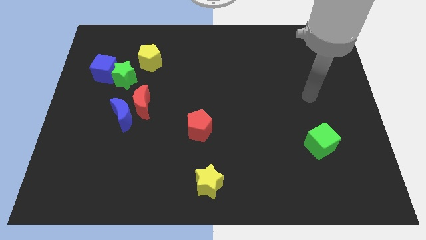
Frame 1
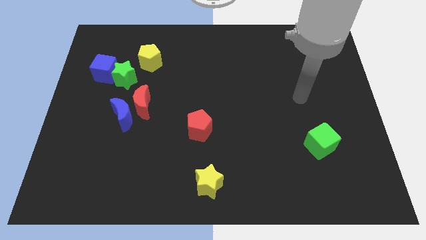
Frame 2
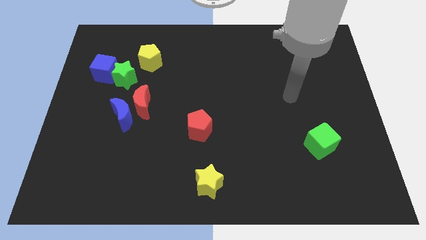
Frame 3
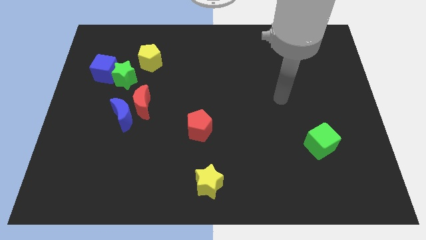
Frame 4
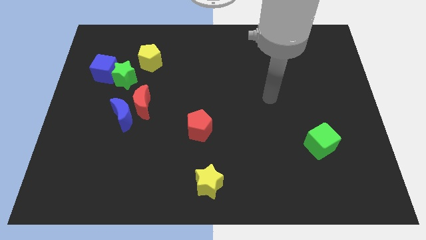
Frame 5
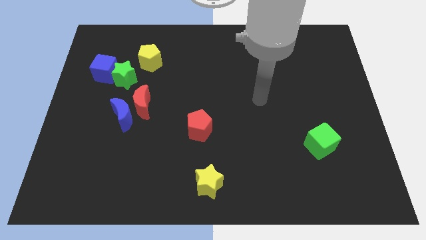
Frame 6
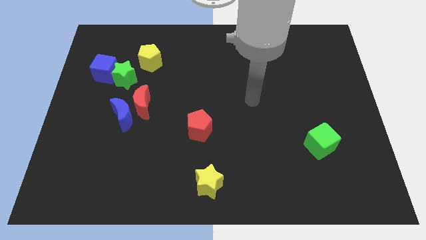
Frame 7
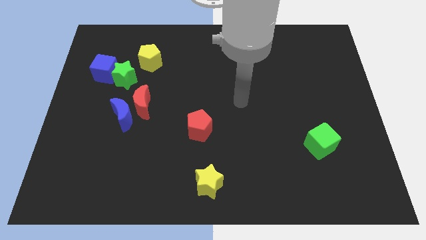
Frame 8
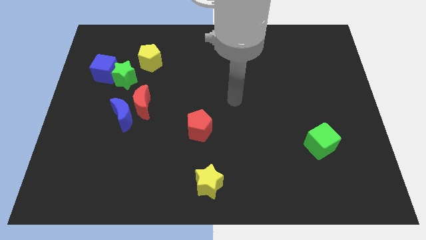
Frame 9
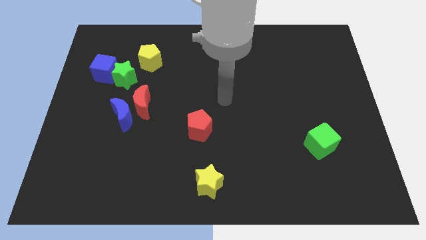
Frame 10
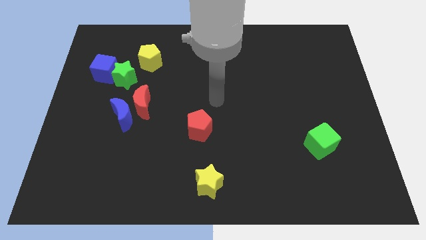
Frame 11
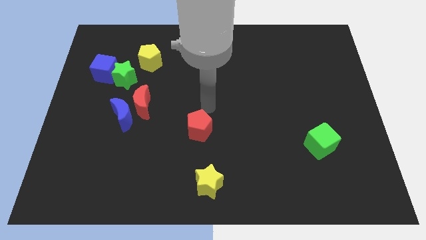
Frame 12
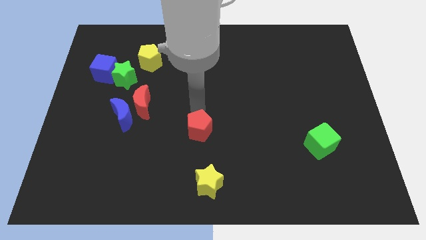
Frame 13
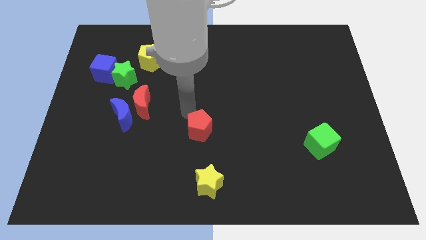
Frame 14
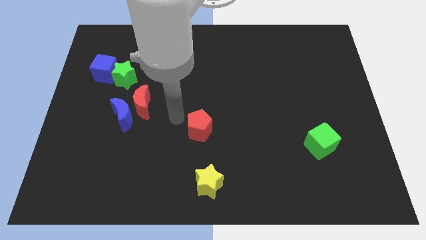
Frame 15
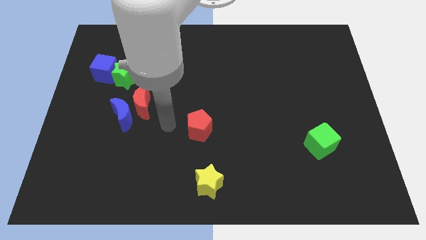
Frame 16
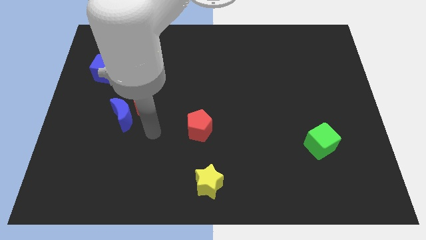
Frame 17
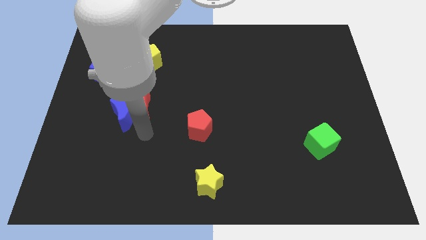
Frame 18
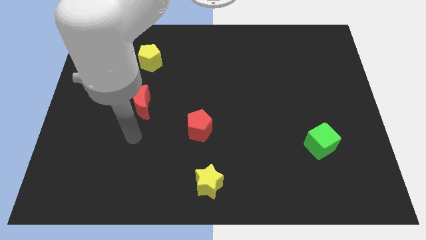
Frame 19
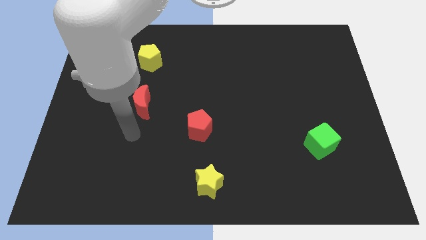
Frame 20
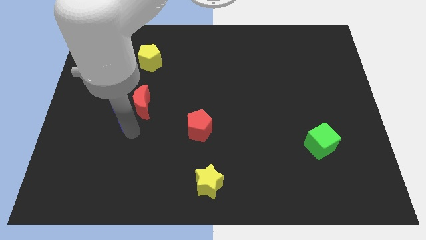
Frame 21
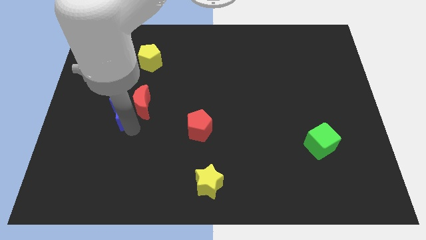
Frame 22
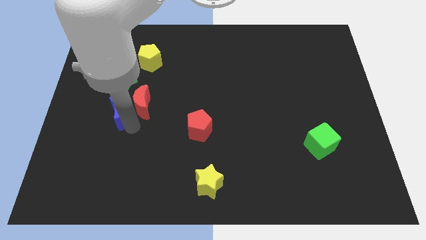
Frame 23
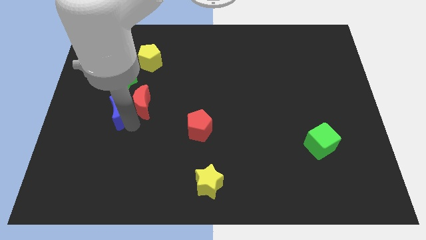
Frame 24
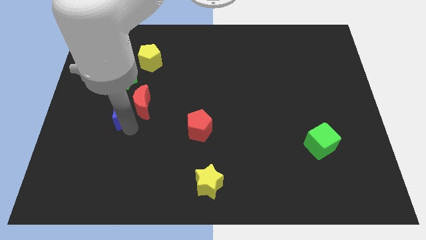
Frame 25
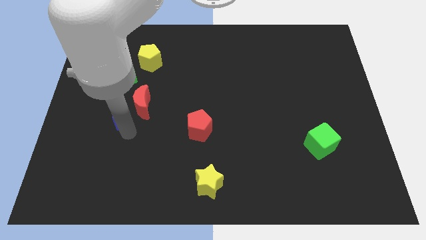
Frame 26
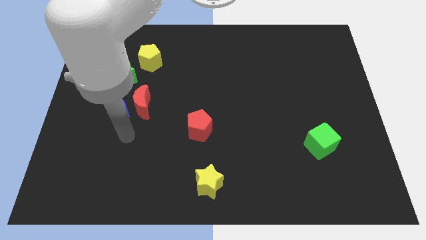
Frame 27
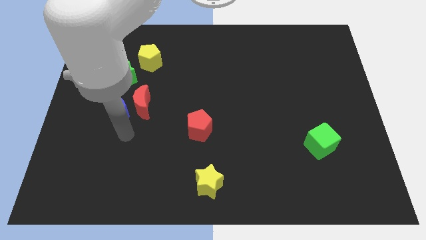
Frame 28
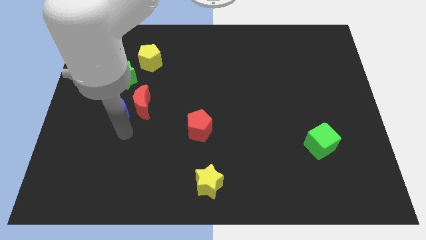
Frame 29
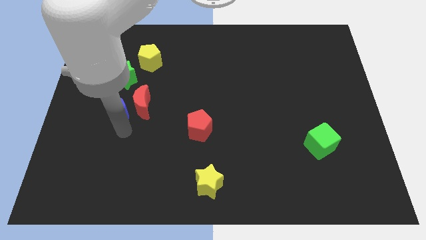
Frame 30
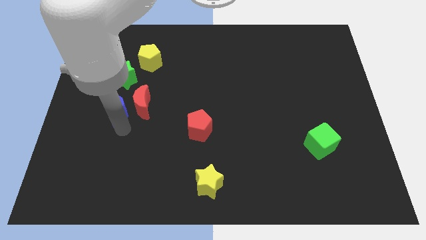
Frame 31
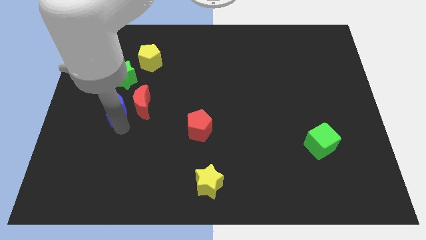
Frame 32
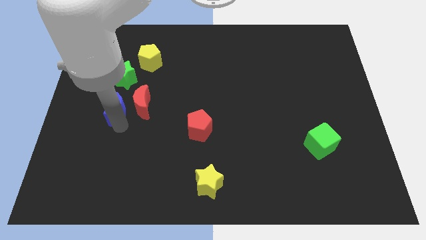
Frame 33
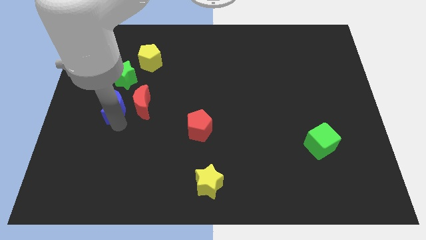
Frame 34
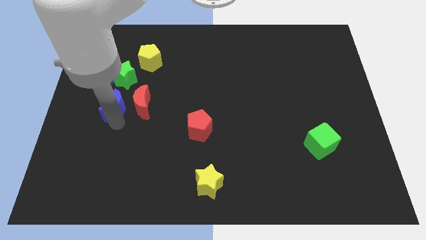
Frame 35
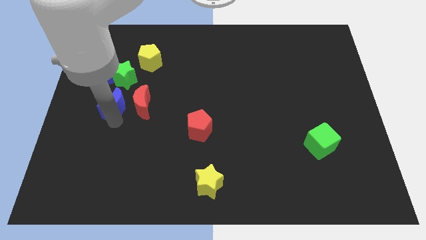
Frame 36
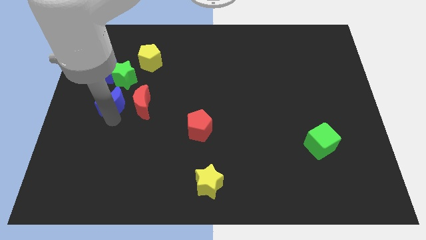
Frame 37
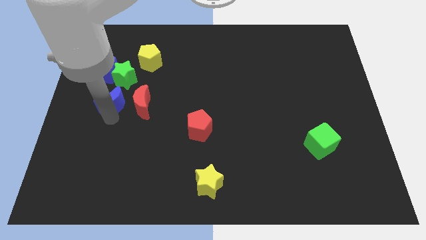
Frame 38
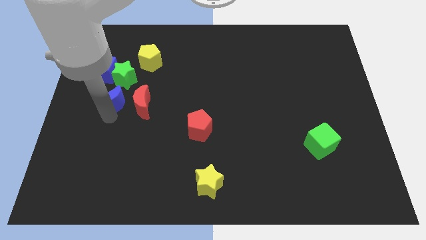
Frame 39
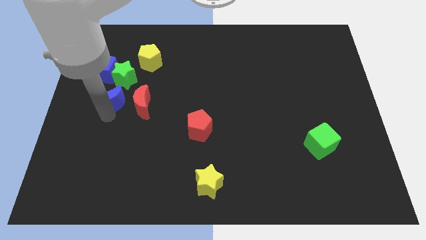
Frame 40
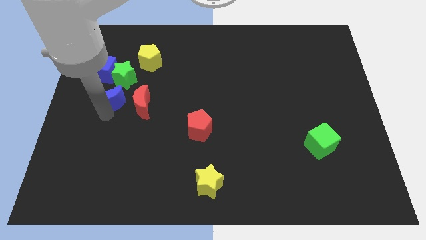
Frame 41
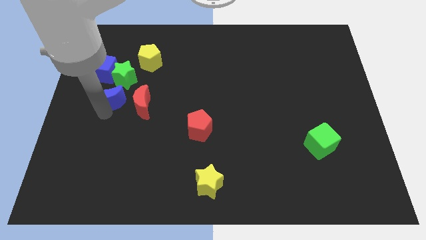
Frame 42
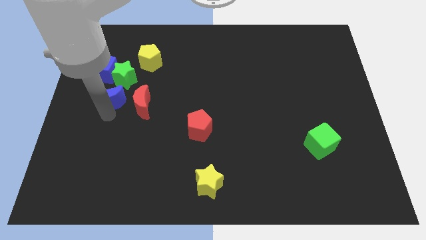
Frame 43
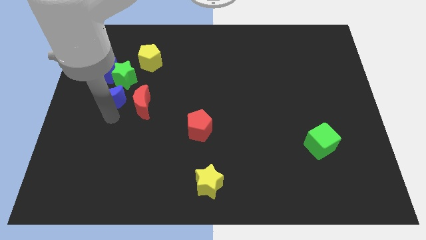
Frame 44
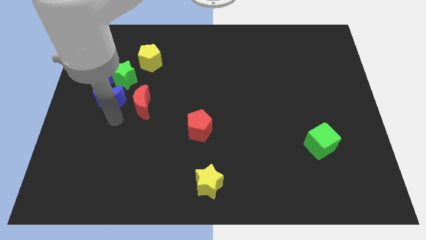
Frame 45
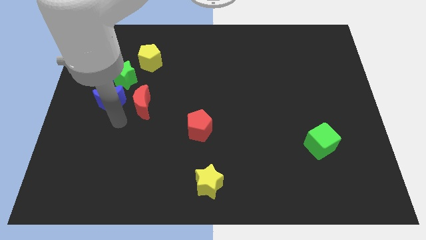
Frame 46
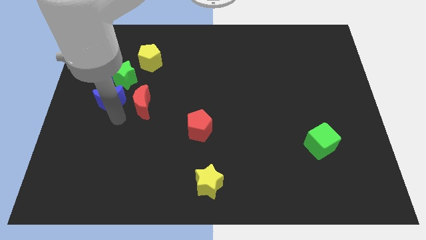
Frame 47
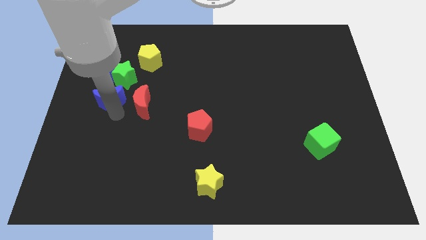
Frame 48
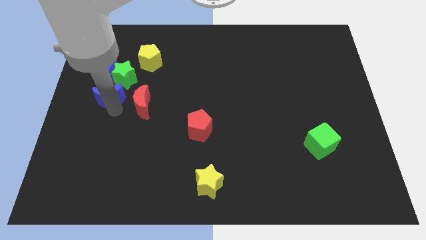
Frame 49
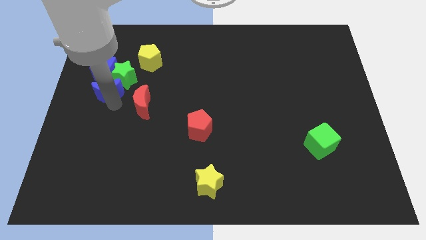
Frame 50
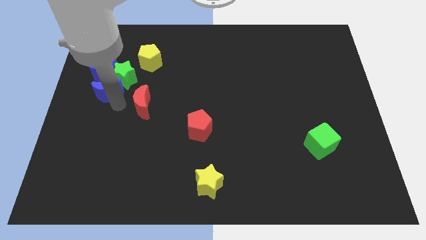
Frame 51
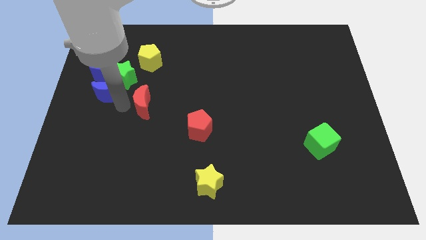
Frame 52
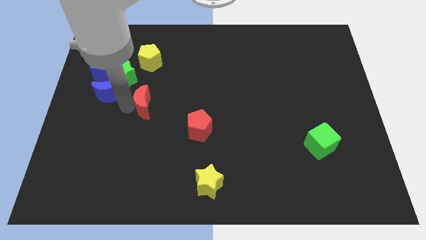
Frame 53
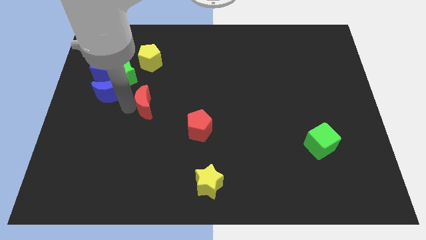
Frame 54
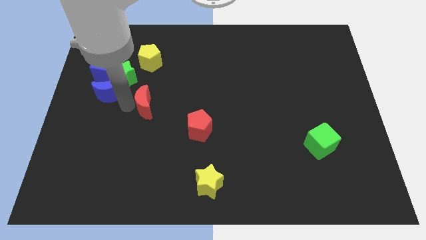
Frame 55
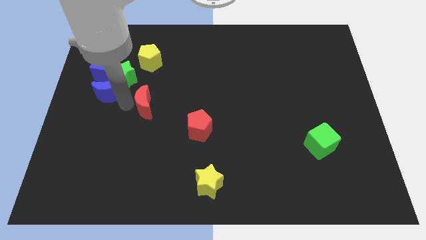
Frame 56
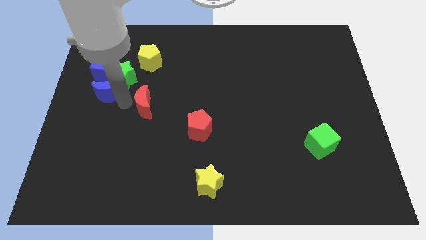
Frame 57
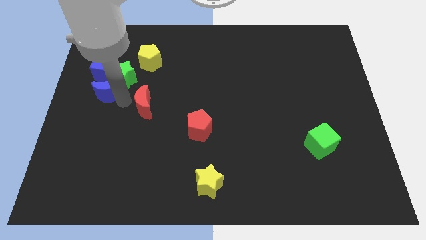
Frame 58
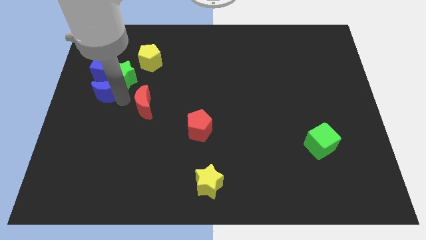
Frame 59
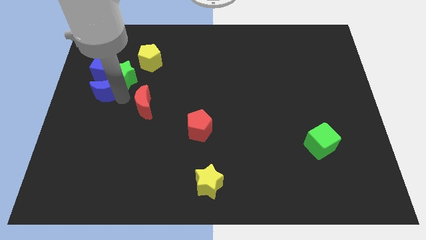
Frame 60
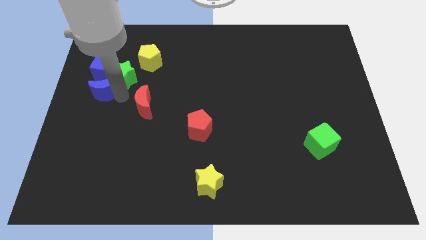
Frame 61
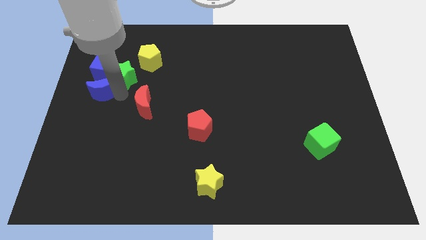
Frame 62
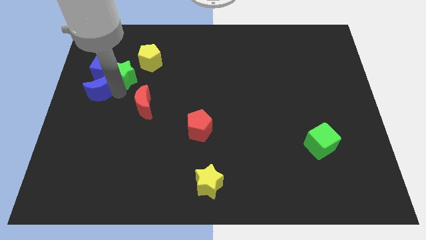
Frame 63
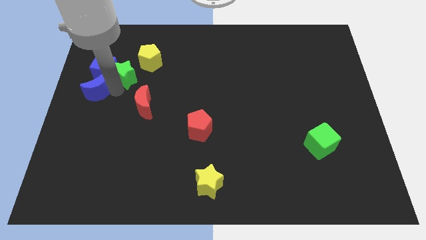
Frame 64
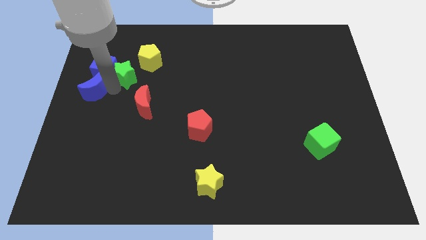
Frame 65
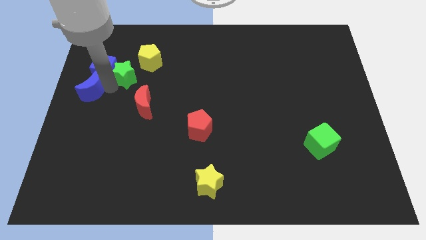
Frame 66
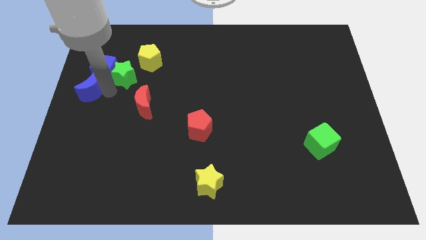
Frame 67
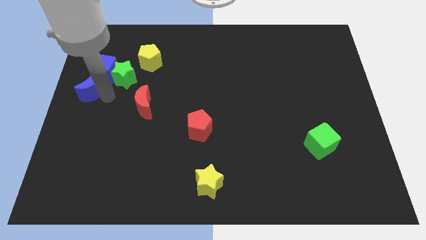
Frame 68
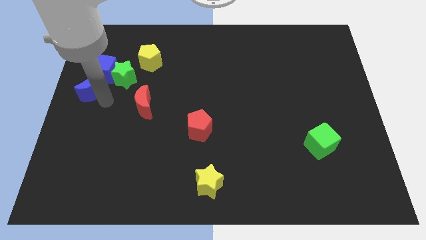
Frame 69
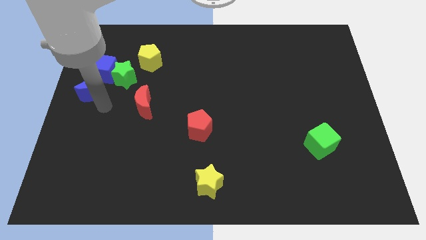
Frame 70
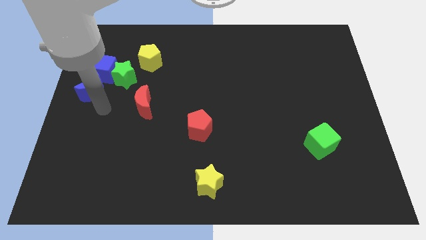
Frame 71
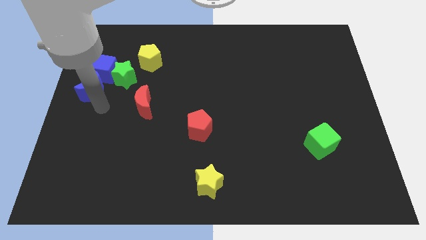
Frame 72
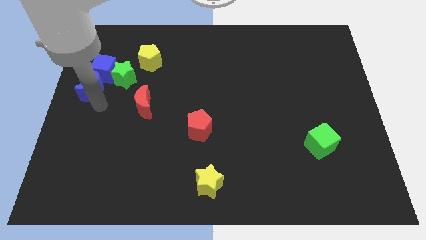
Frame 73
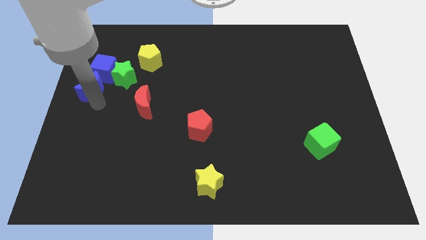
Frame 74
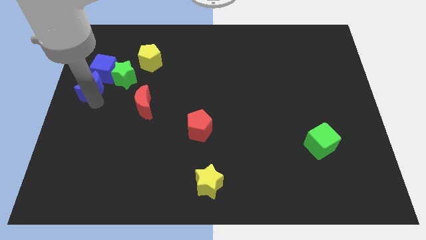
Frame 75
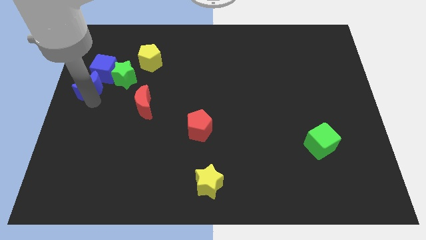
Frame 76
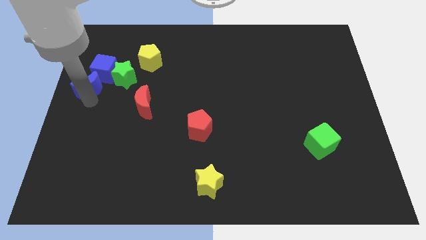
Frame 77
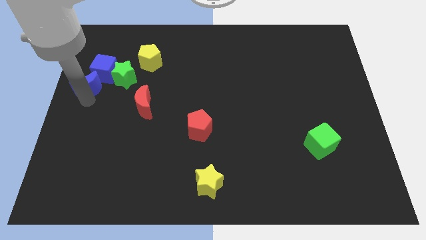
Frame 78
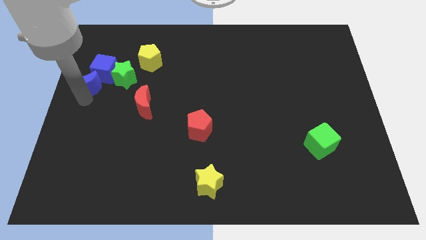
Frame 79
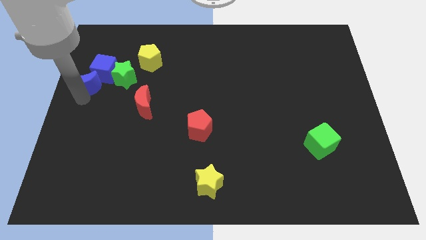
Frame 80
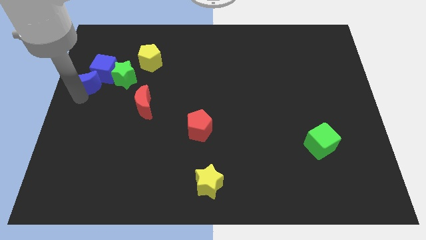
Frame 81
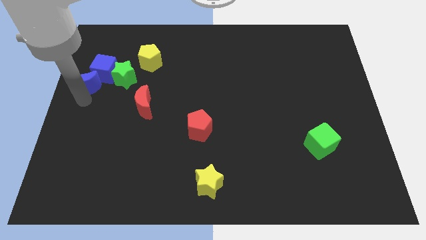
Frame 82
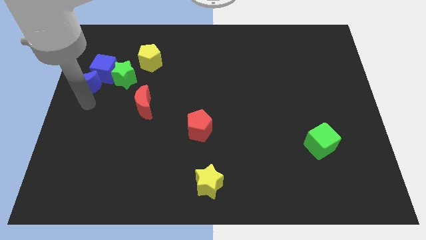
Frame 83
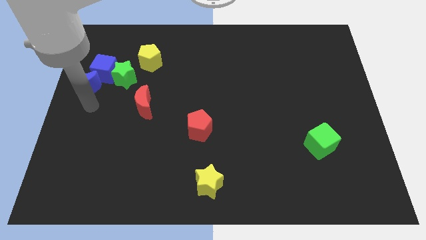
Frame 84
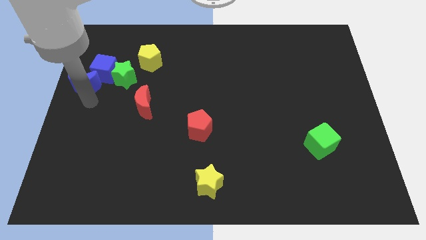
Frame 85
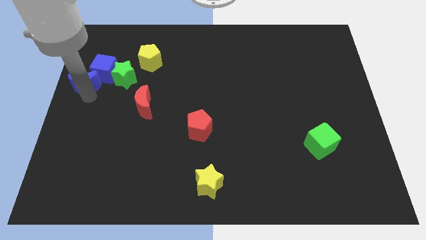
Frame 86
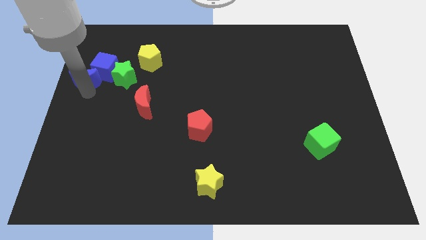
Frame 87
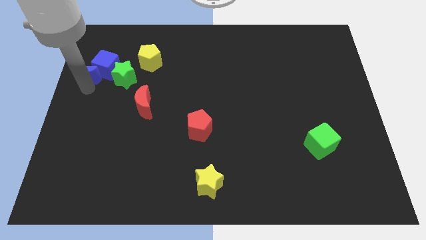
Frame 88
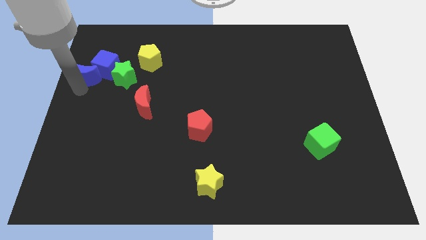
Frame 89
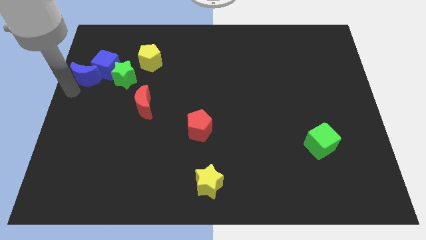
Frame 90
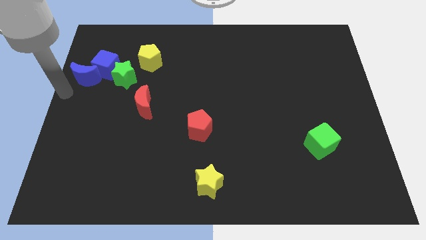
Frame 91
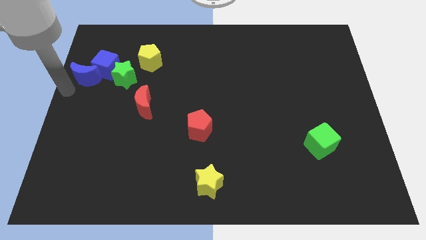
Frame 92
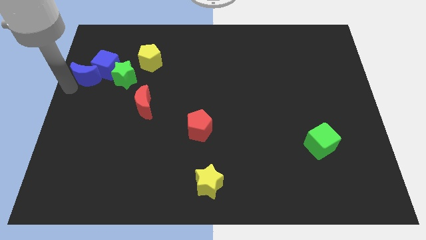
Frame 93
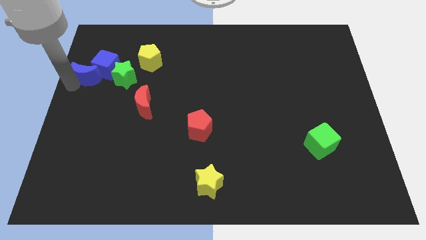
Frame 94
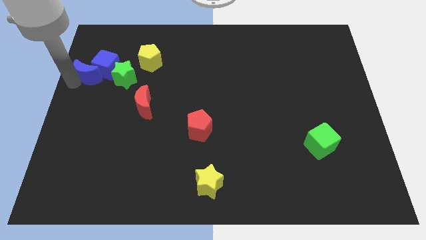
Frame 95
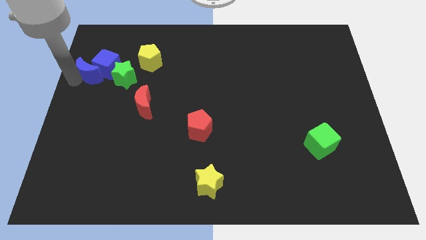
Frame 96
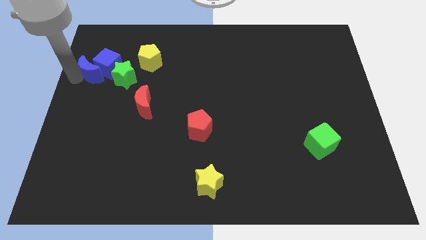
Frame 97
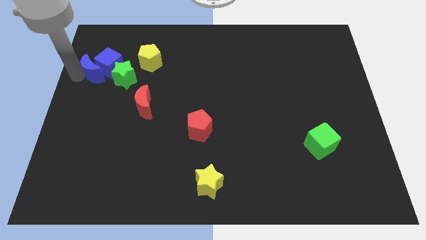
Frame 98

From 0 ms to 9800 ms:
push the blue moon just left of the yellow pentagon
